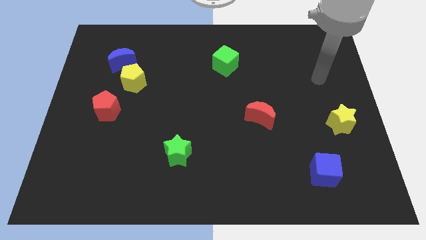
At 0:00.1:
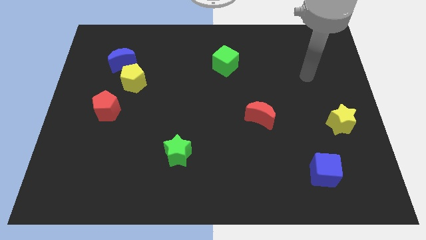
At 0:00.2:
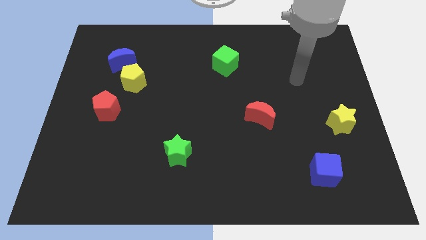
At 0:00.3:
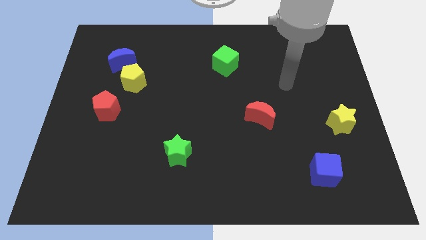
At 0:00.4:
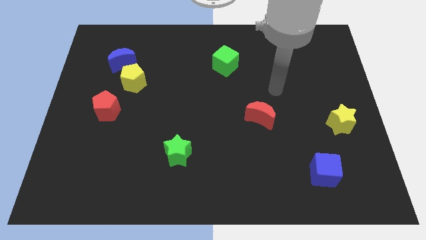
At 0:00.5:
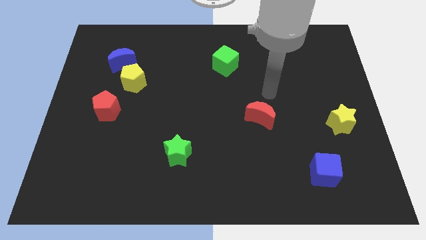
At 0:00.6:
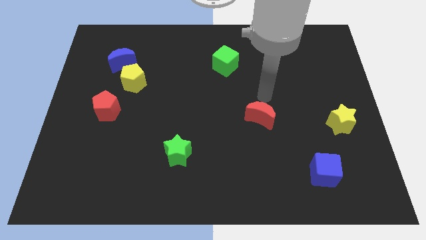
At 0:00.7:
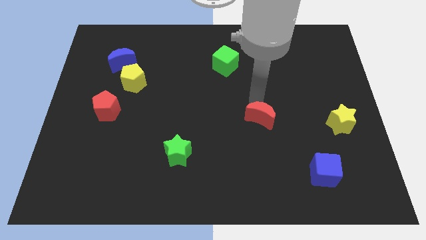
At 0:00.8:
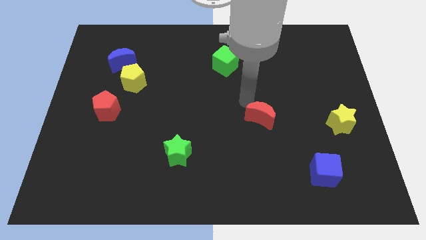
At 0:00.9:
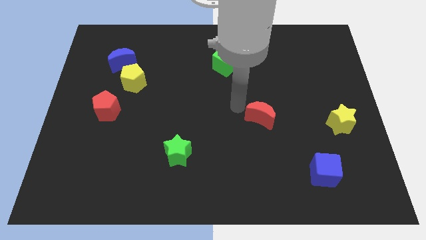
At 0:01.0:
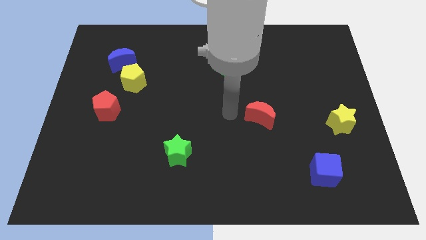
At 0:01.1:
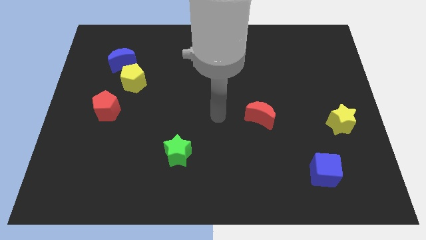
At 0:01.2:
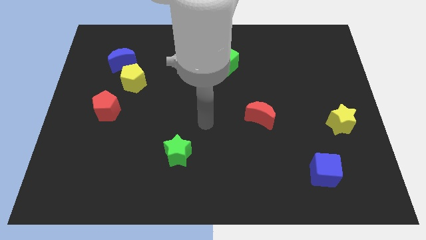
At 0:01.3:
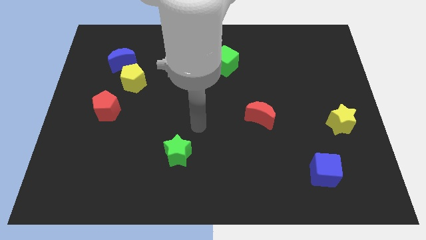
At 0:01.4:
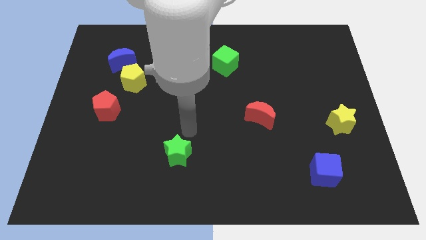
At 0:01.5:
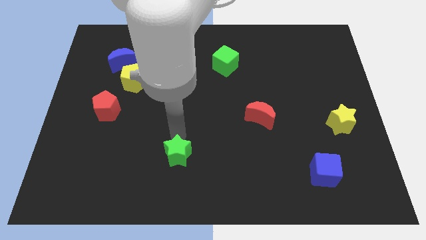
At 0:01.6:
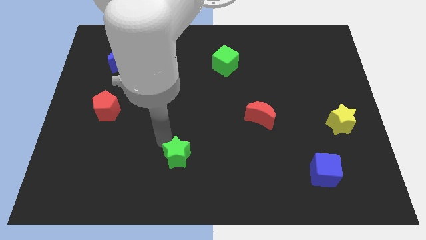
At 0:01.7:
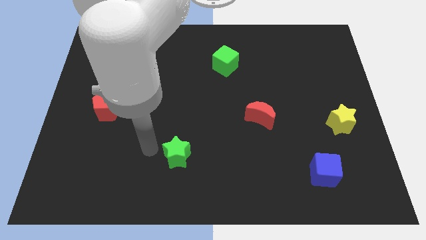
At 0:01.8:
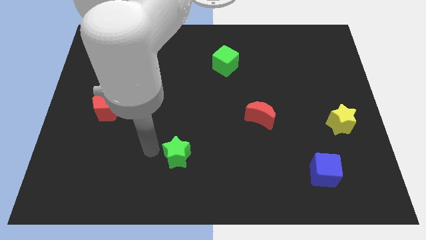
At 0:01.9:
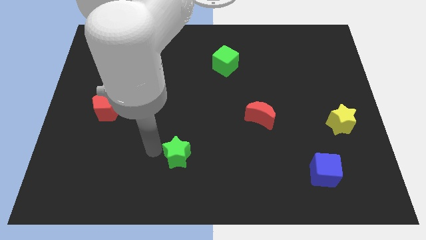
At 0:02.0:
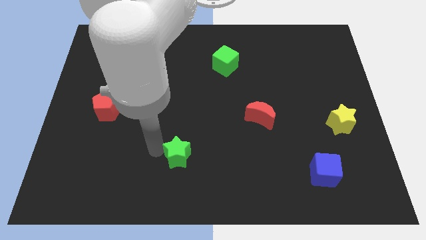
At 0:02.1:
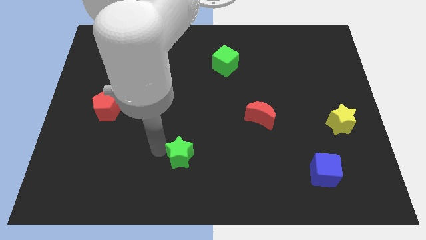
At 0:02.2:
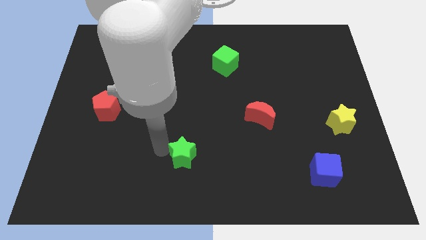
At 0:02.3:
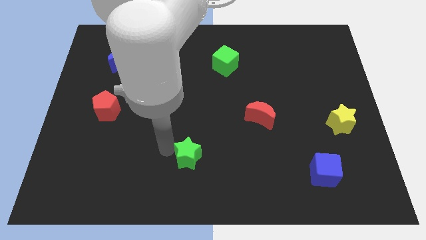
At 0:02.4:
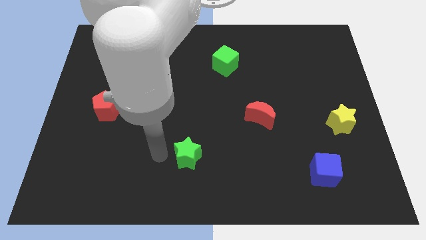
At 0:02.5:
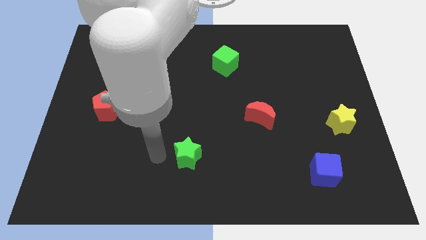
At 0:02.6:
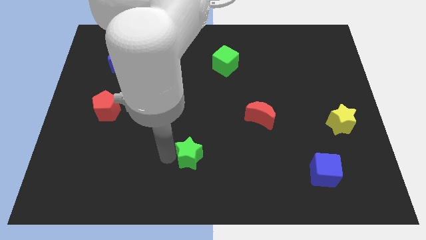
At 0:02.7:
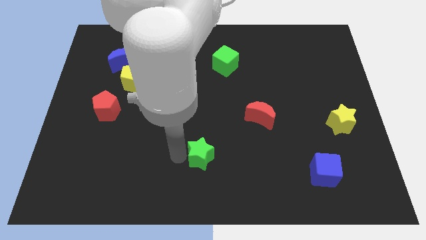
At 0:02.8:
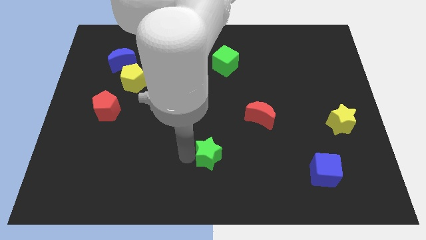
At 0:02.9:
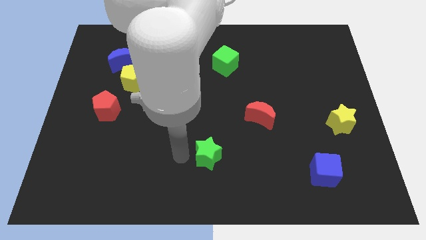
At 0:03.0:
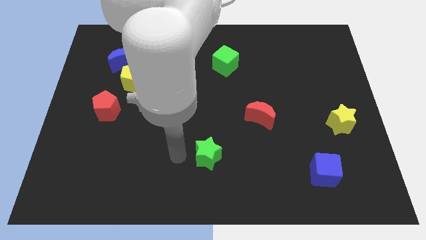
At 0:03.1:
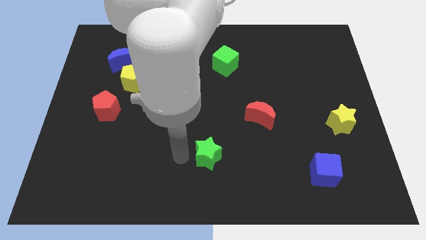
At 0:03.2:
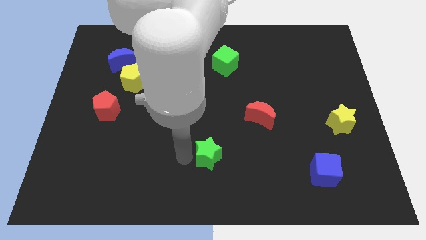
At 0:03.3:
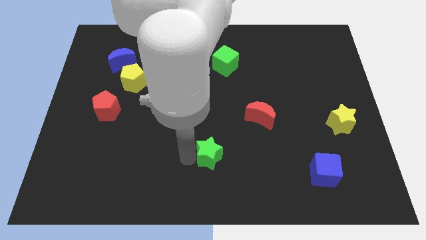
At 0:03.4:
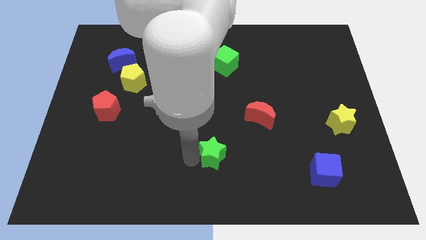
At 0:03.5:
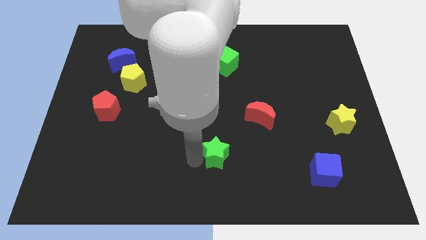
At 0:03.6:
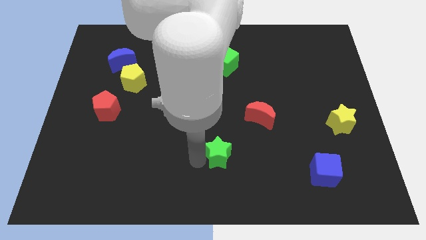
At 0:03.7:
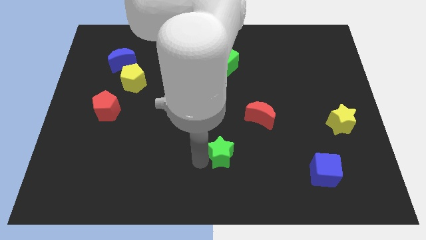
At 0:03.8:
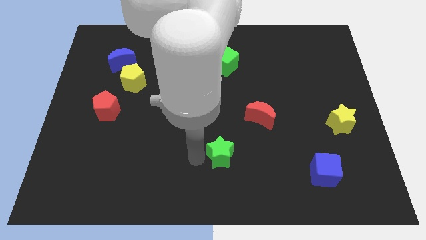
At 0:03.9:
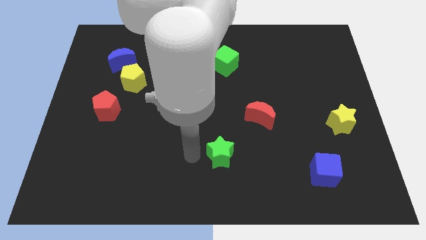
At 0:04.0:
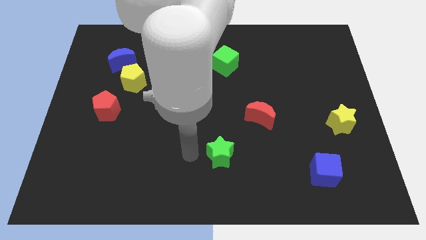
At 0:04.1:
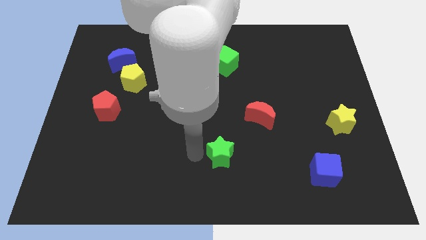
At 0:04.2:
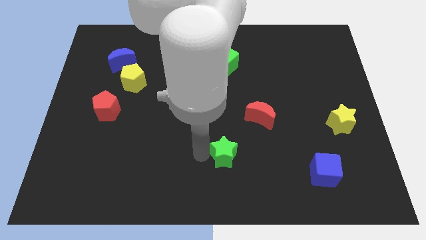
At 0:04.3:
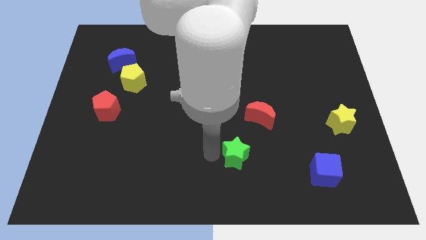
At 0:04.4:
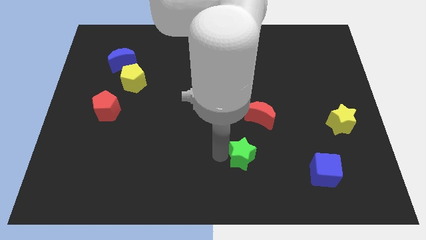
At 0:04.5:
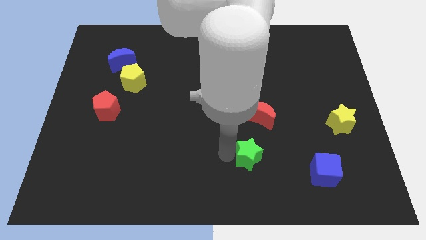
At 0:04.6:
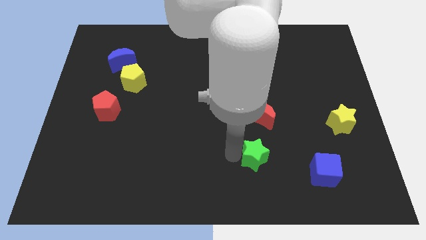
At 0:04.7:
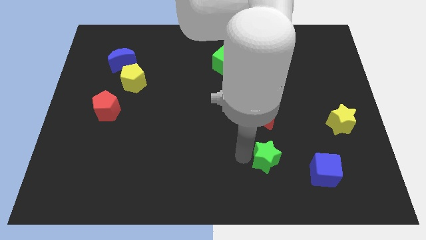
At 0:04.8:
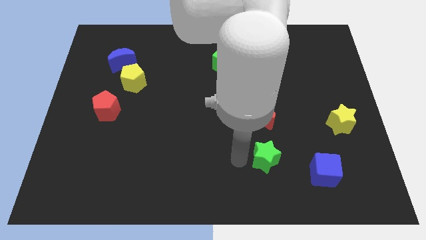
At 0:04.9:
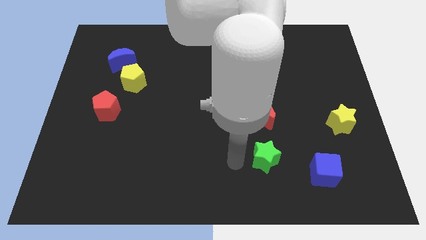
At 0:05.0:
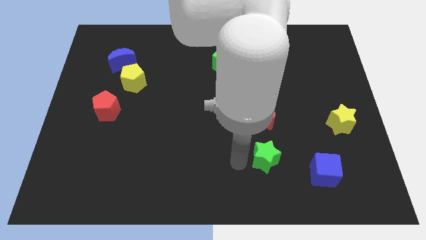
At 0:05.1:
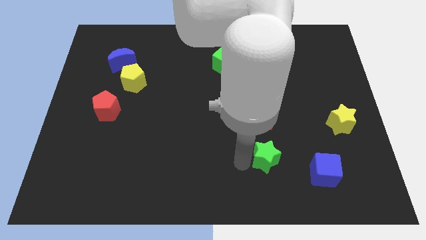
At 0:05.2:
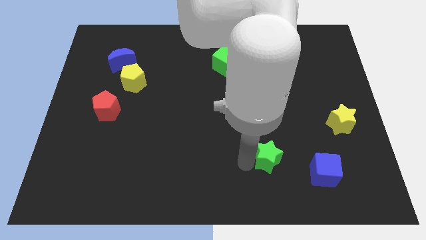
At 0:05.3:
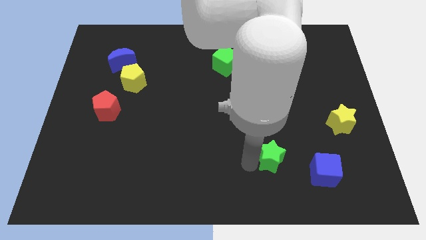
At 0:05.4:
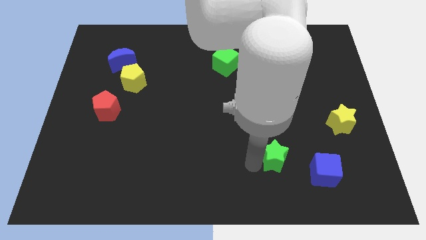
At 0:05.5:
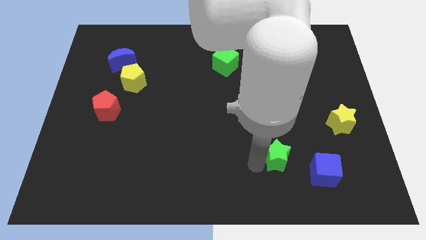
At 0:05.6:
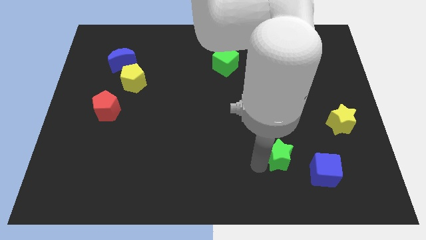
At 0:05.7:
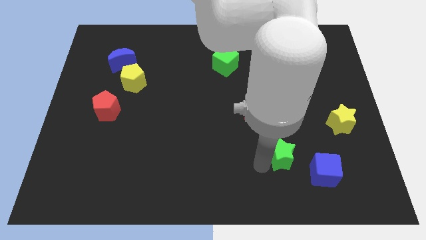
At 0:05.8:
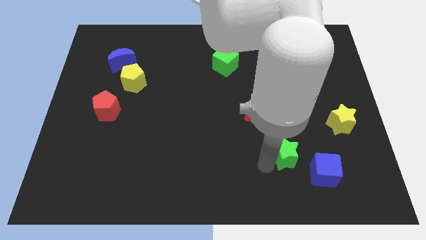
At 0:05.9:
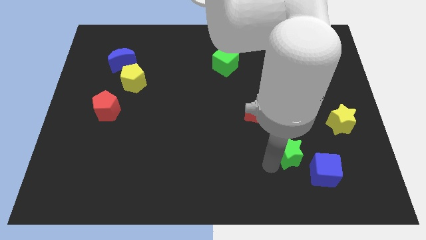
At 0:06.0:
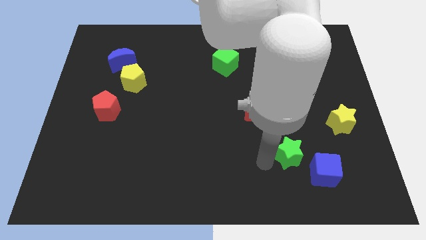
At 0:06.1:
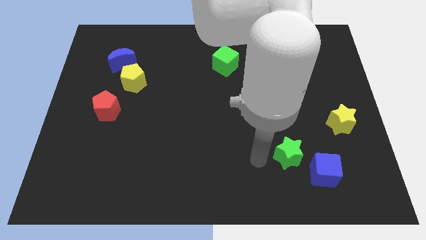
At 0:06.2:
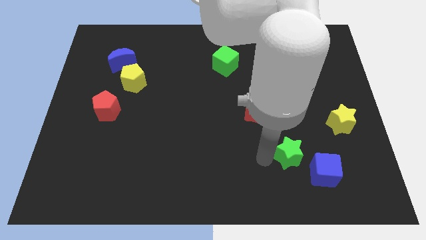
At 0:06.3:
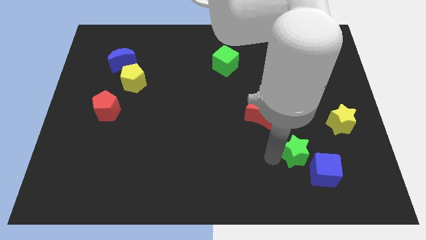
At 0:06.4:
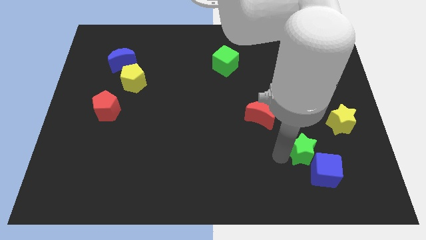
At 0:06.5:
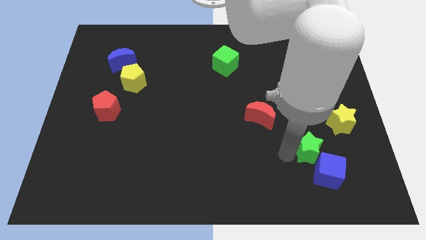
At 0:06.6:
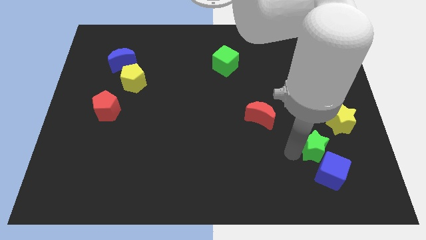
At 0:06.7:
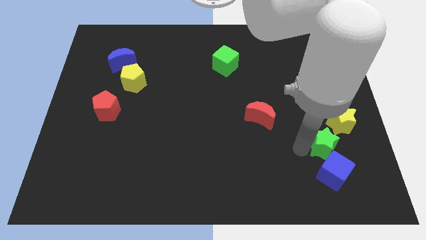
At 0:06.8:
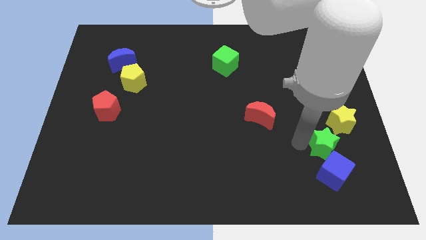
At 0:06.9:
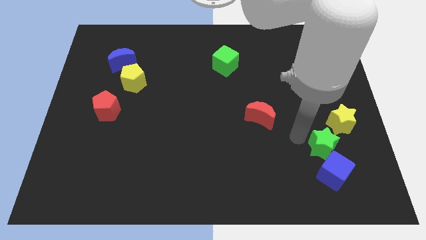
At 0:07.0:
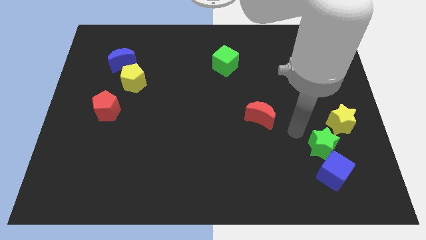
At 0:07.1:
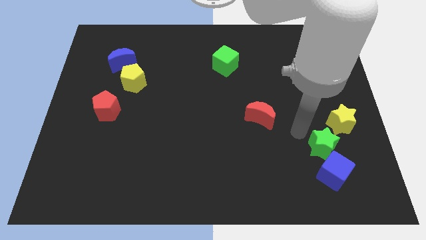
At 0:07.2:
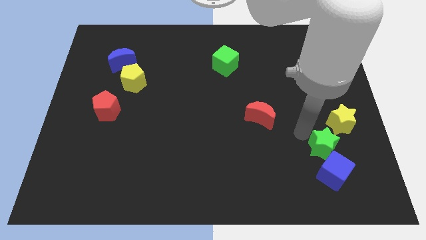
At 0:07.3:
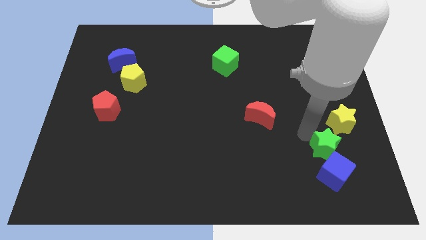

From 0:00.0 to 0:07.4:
put the green star below the yellow star
